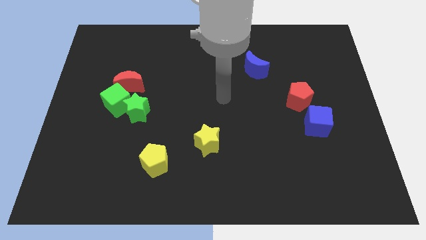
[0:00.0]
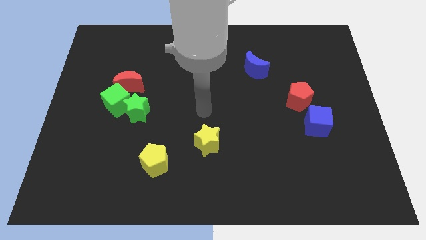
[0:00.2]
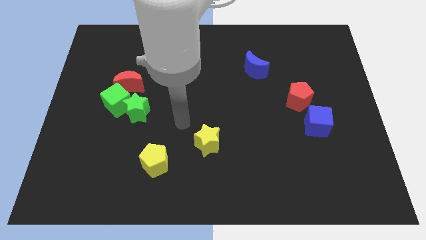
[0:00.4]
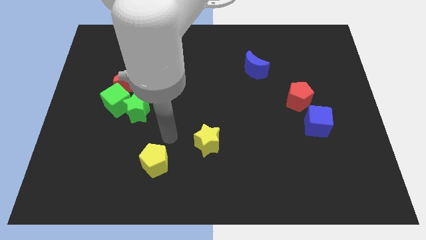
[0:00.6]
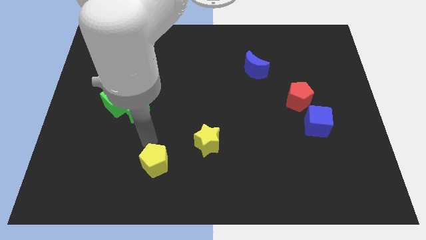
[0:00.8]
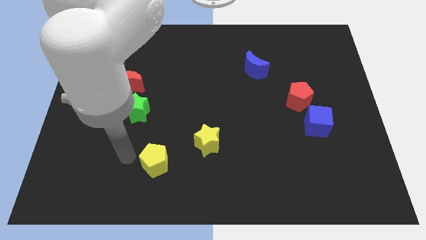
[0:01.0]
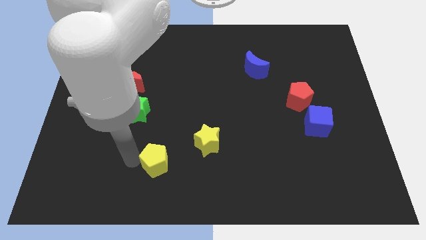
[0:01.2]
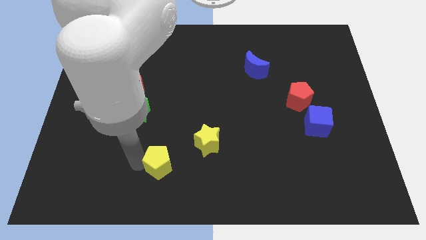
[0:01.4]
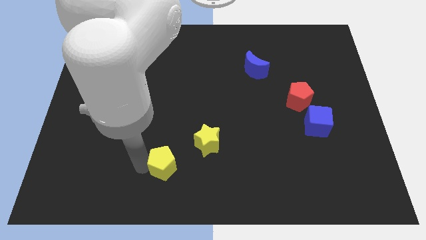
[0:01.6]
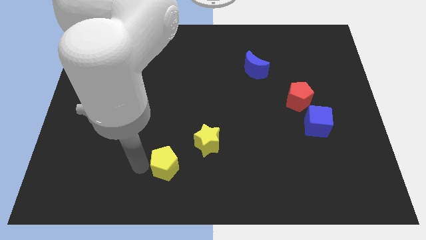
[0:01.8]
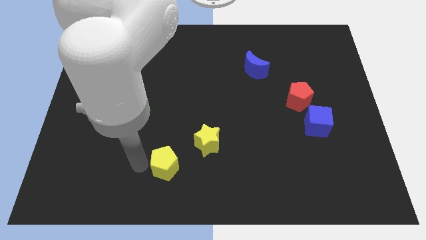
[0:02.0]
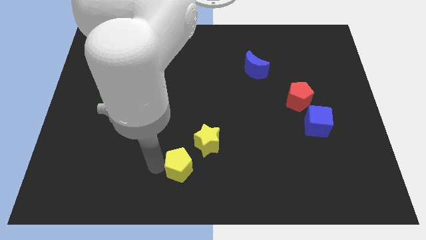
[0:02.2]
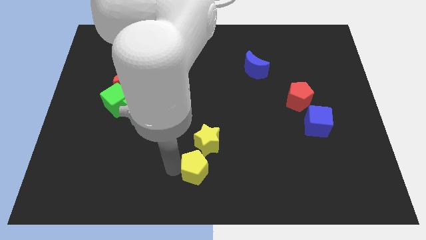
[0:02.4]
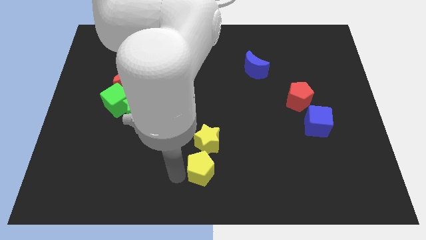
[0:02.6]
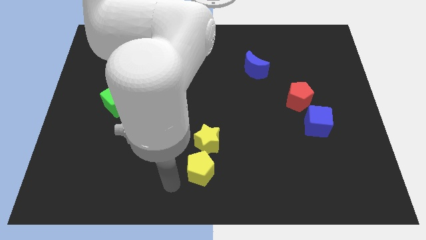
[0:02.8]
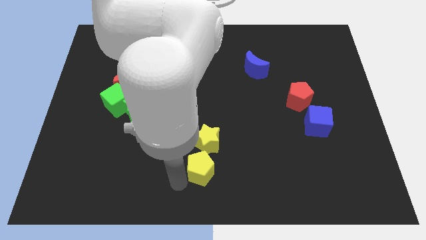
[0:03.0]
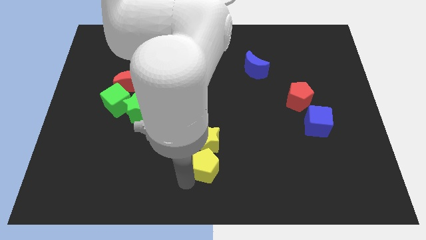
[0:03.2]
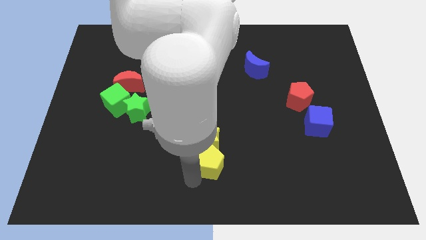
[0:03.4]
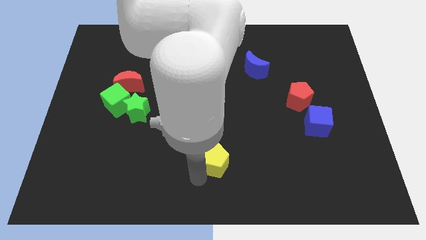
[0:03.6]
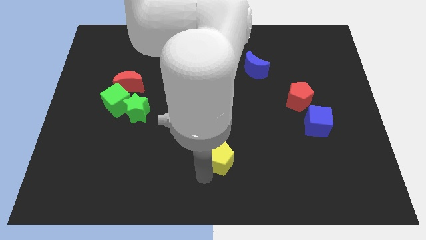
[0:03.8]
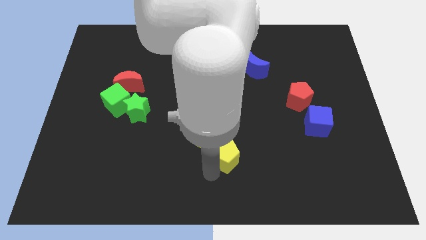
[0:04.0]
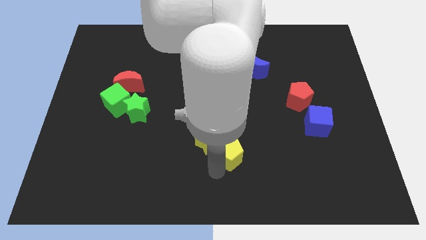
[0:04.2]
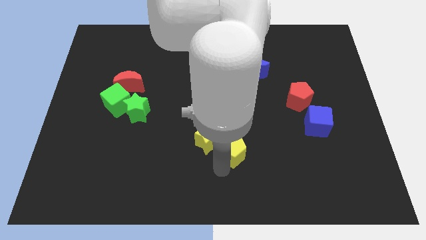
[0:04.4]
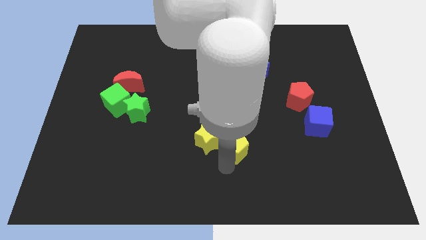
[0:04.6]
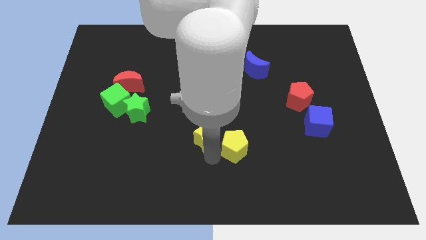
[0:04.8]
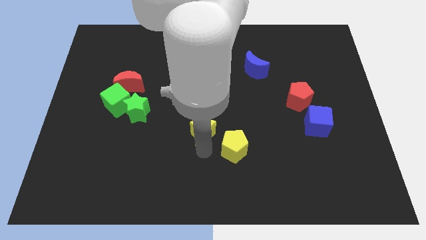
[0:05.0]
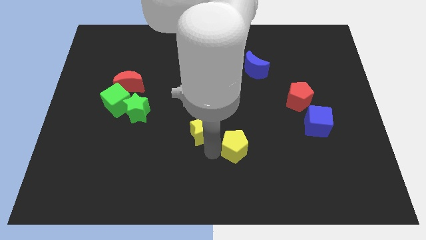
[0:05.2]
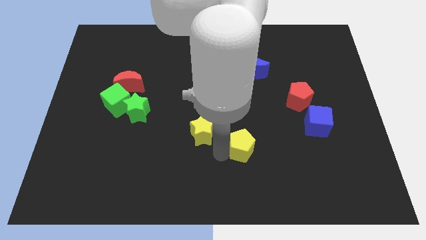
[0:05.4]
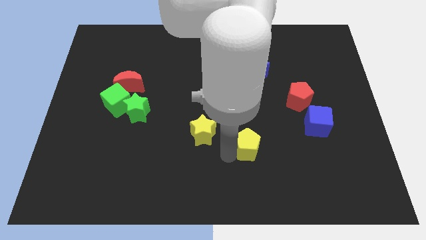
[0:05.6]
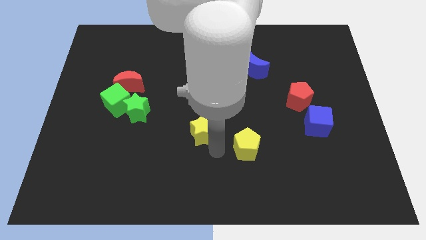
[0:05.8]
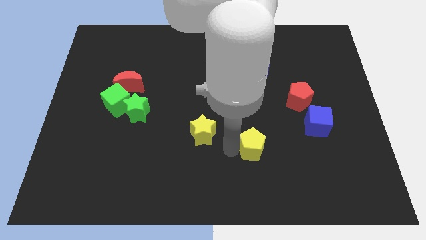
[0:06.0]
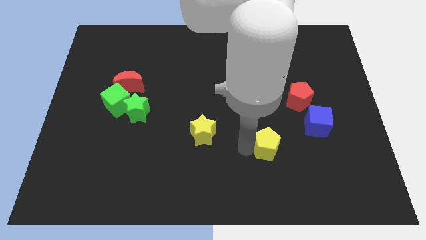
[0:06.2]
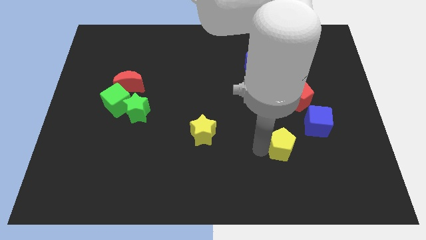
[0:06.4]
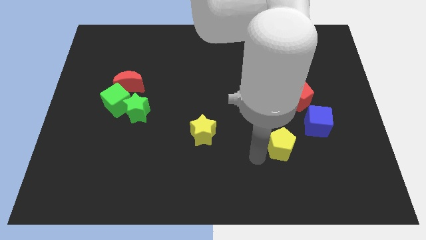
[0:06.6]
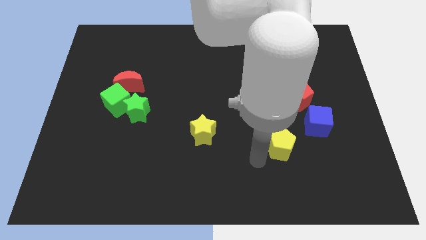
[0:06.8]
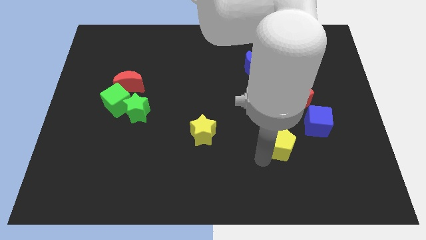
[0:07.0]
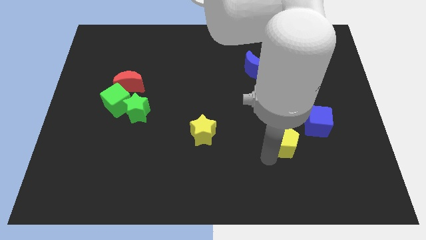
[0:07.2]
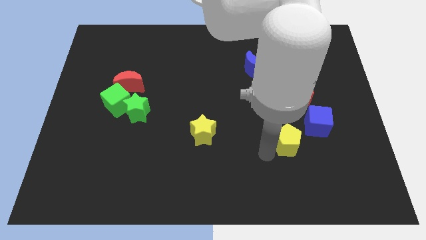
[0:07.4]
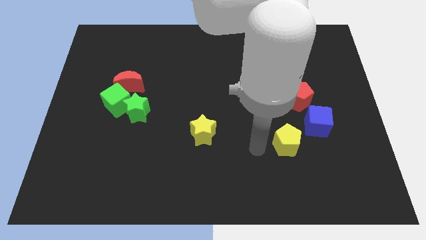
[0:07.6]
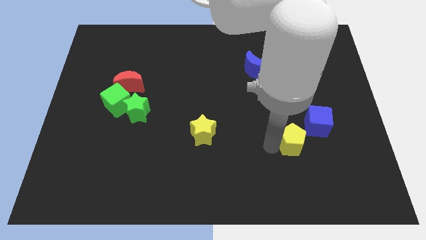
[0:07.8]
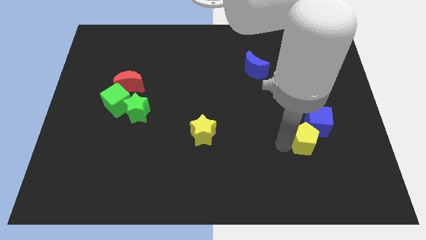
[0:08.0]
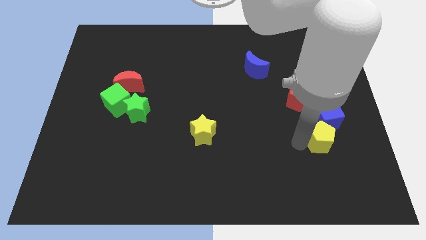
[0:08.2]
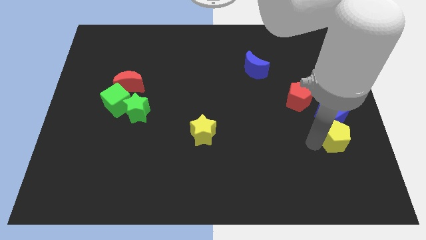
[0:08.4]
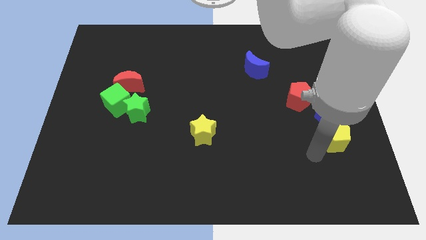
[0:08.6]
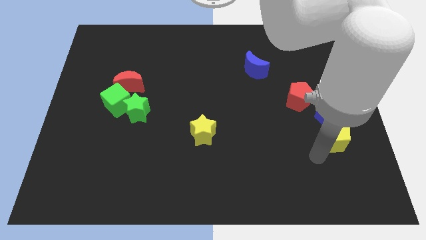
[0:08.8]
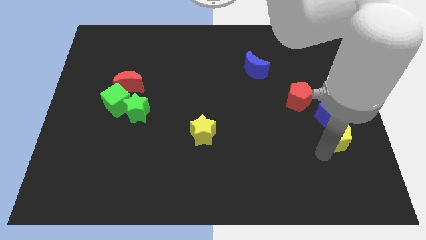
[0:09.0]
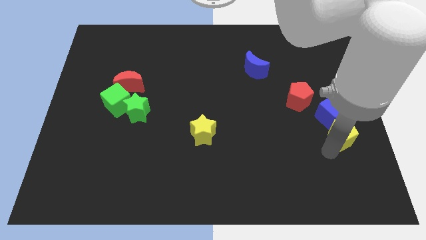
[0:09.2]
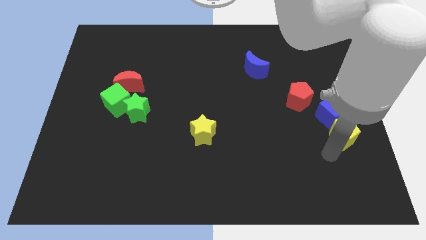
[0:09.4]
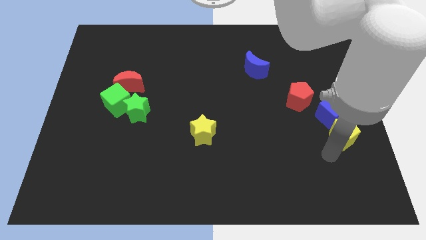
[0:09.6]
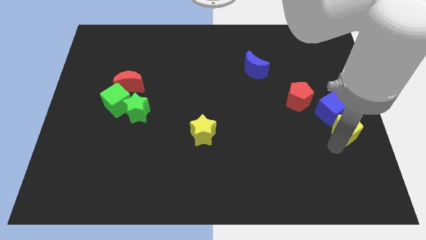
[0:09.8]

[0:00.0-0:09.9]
push the yellow pentagon to the right side of the board

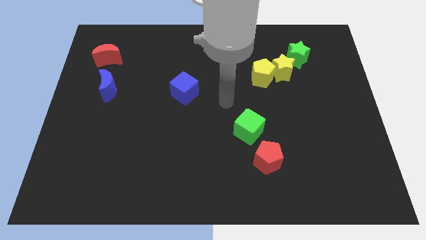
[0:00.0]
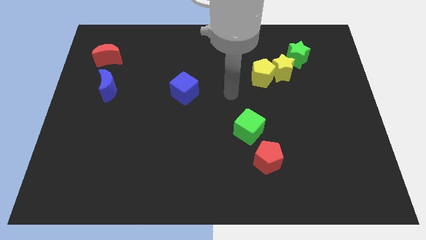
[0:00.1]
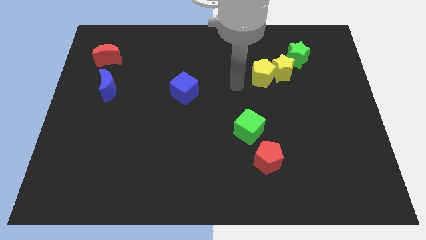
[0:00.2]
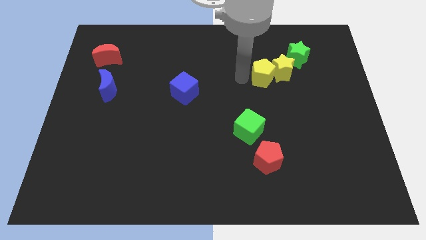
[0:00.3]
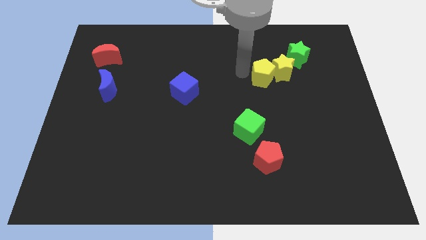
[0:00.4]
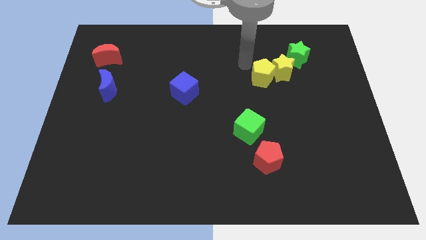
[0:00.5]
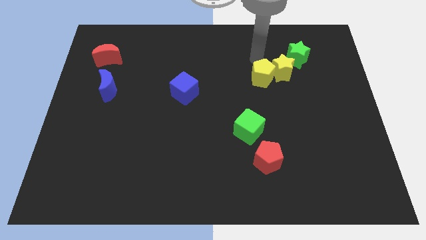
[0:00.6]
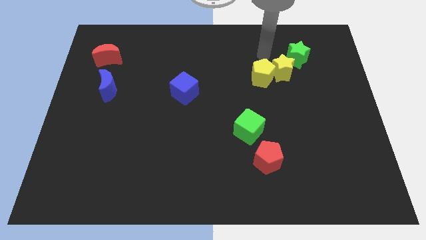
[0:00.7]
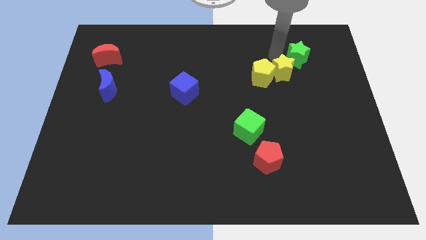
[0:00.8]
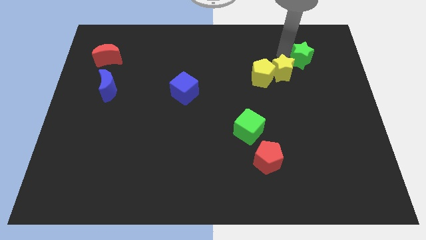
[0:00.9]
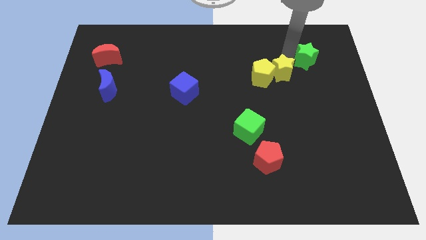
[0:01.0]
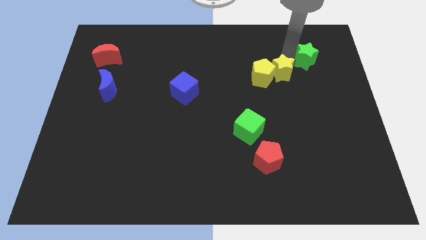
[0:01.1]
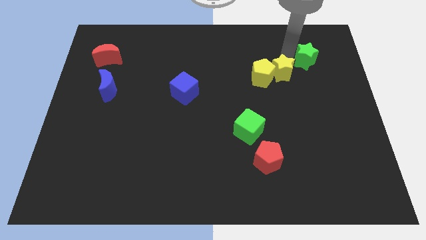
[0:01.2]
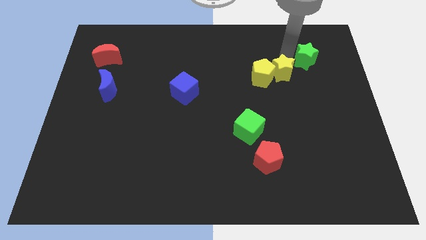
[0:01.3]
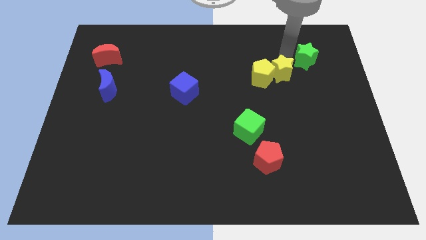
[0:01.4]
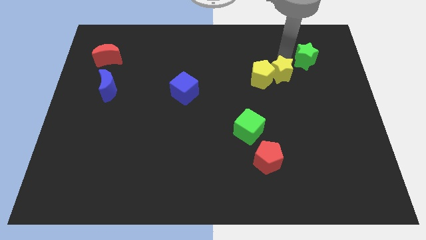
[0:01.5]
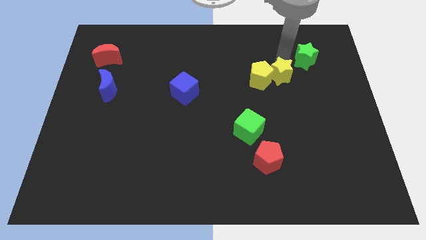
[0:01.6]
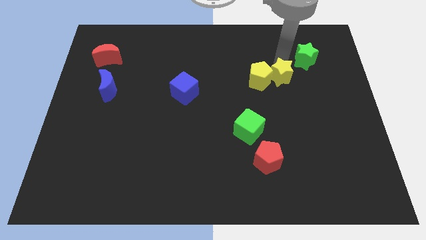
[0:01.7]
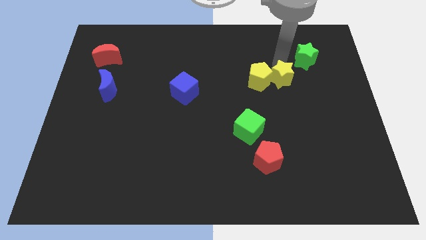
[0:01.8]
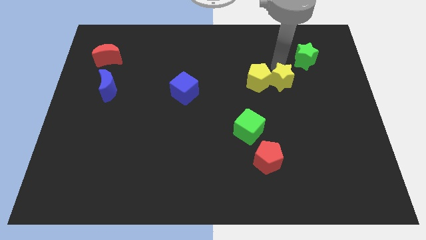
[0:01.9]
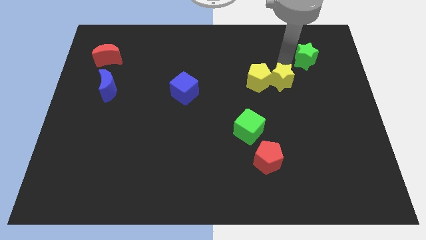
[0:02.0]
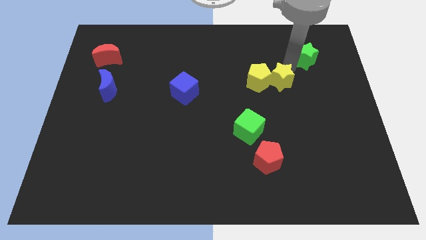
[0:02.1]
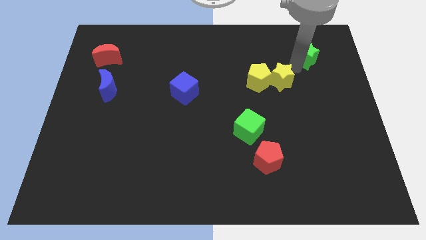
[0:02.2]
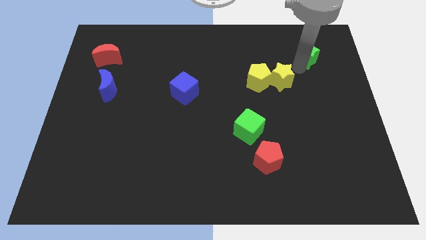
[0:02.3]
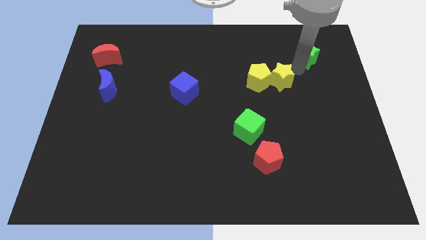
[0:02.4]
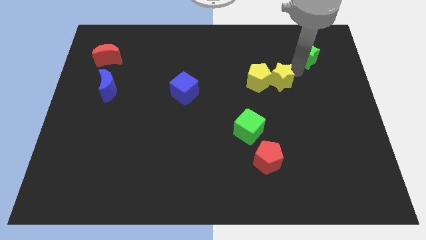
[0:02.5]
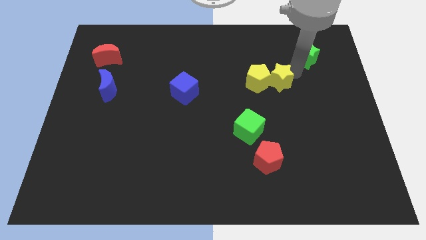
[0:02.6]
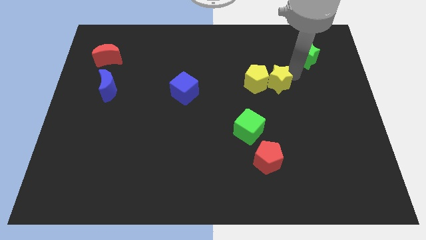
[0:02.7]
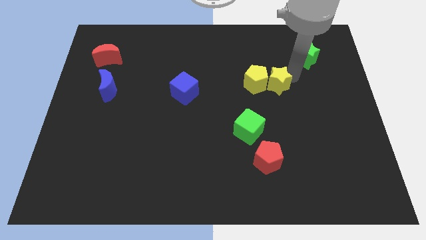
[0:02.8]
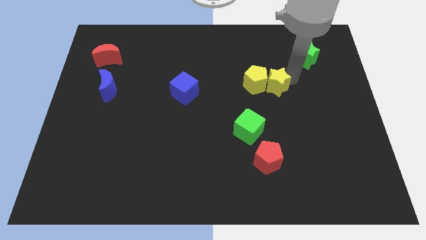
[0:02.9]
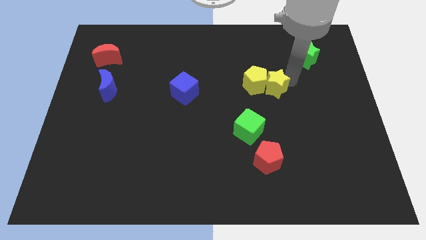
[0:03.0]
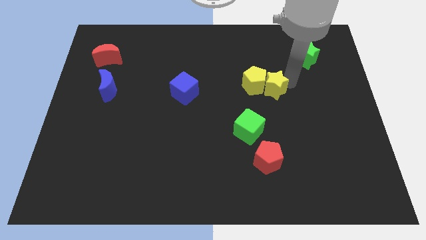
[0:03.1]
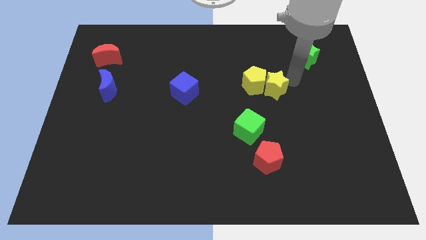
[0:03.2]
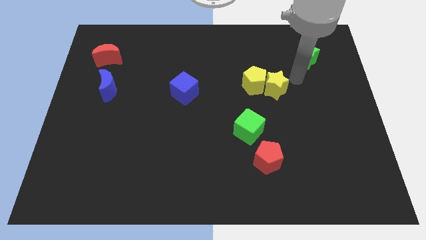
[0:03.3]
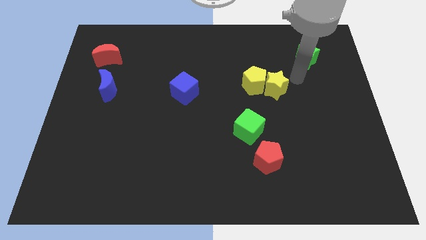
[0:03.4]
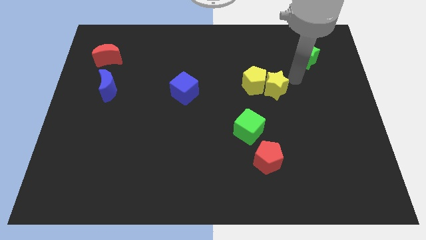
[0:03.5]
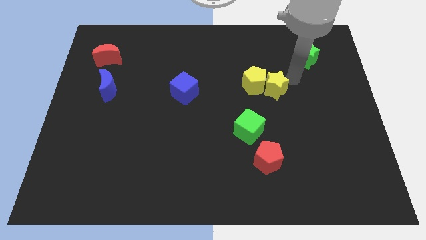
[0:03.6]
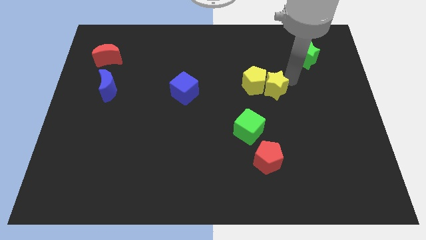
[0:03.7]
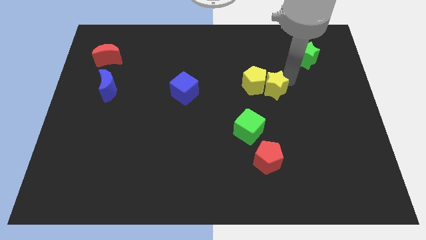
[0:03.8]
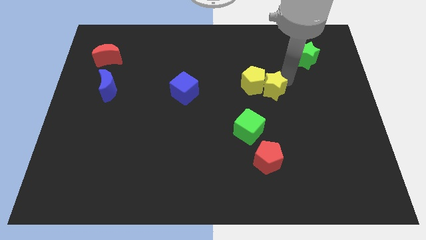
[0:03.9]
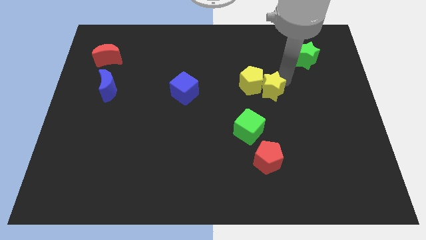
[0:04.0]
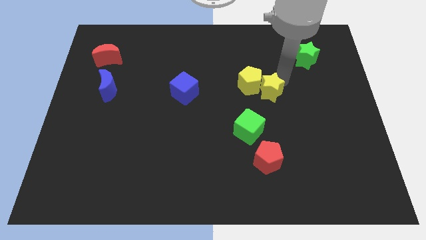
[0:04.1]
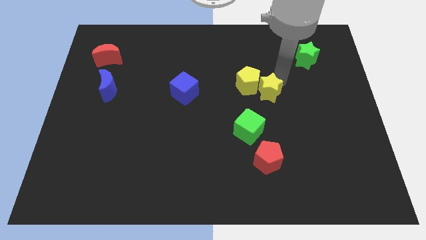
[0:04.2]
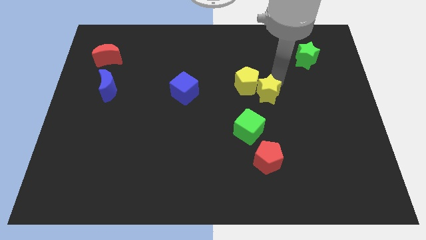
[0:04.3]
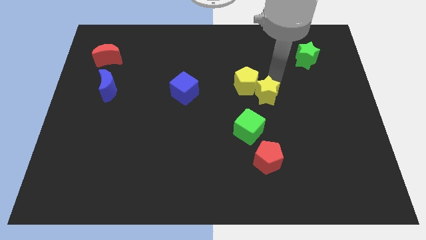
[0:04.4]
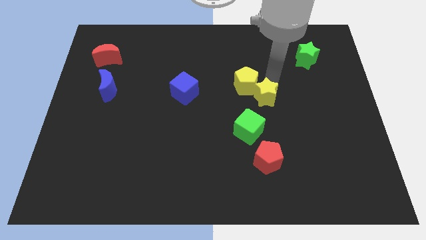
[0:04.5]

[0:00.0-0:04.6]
slide the yellow star to the middle
